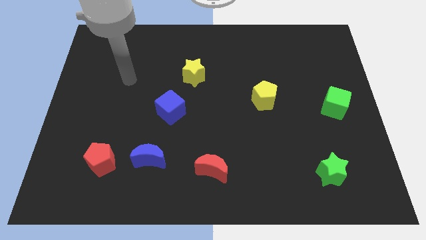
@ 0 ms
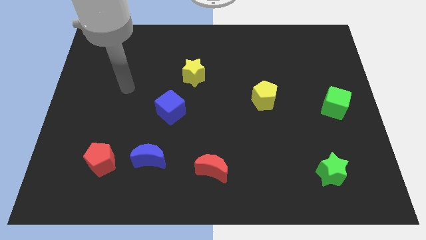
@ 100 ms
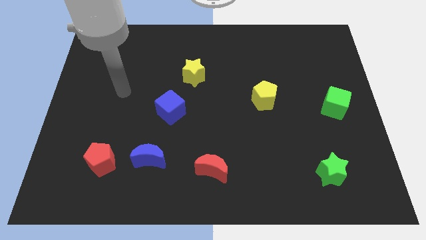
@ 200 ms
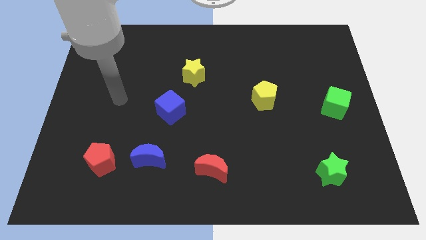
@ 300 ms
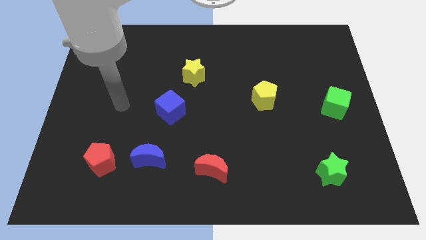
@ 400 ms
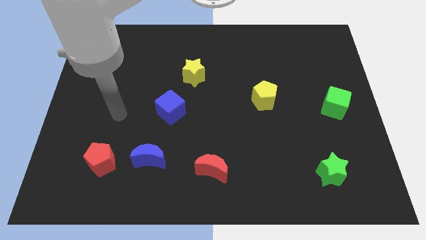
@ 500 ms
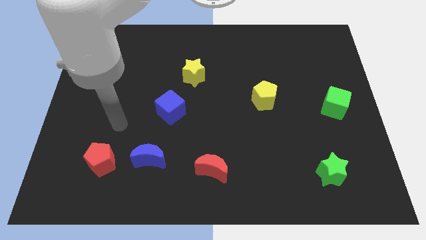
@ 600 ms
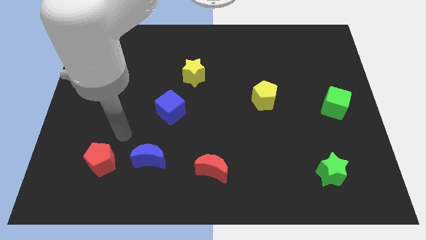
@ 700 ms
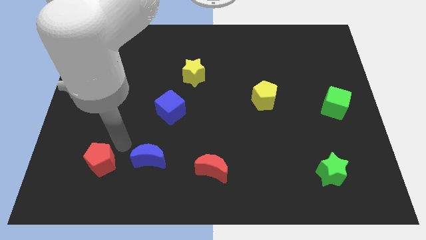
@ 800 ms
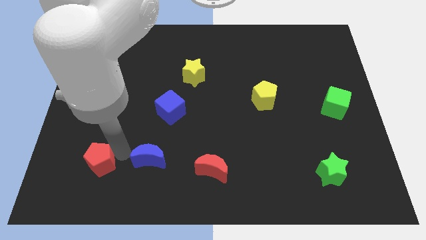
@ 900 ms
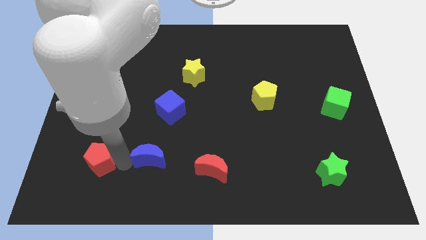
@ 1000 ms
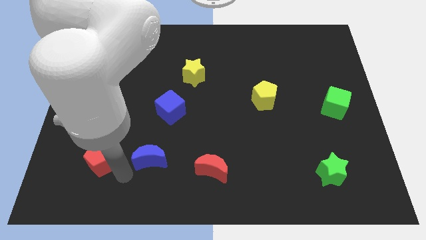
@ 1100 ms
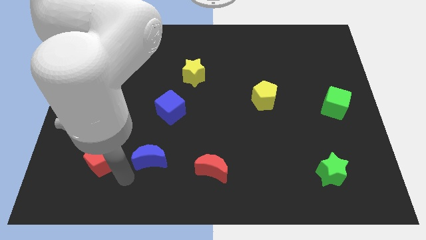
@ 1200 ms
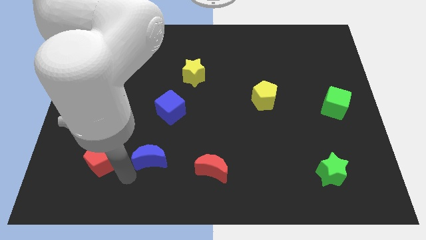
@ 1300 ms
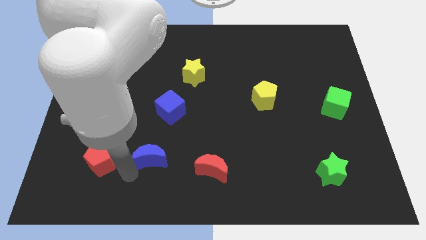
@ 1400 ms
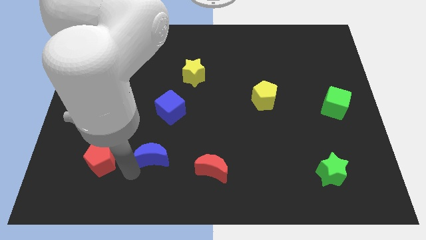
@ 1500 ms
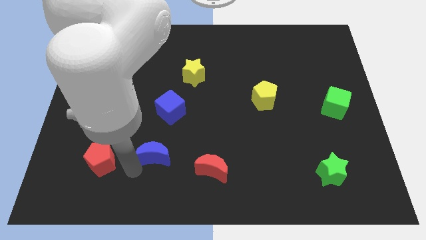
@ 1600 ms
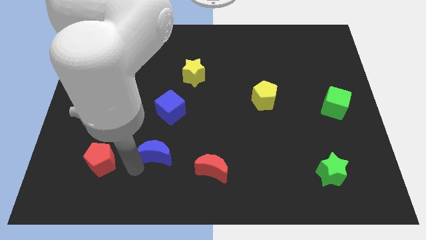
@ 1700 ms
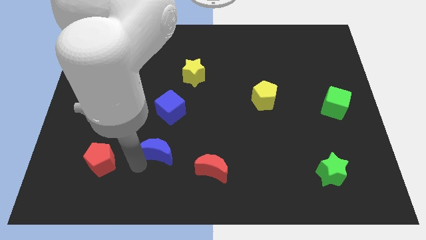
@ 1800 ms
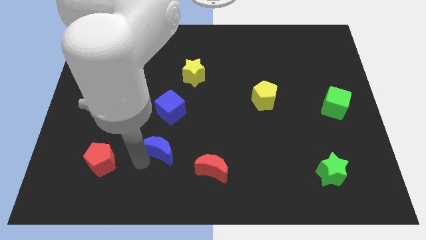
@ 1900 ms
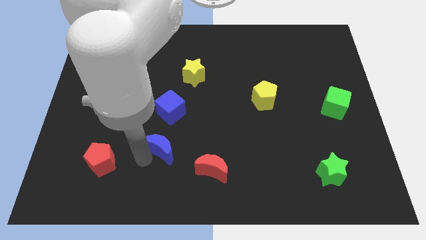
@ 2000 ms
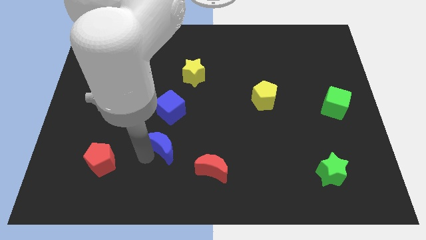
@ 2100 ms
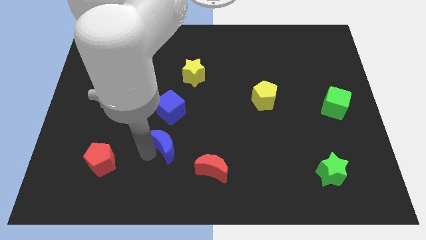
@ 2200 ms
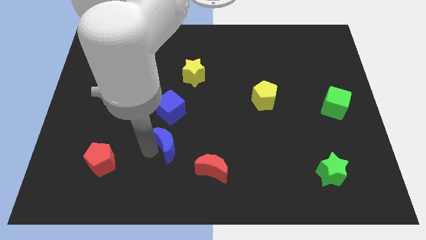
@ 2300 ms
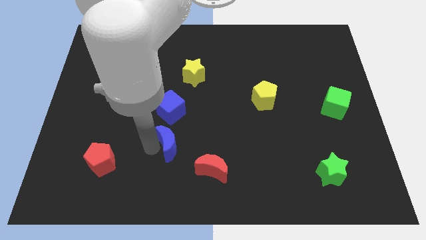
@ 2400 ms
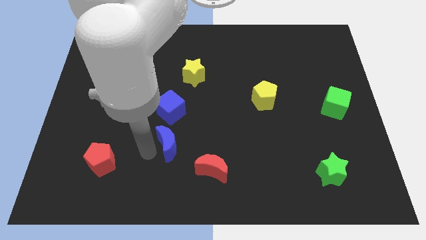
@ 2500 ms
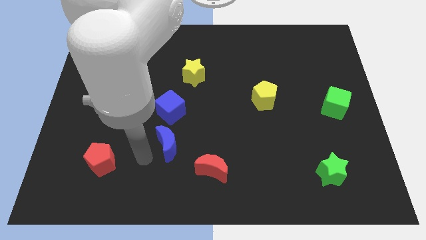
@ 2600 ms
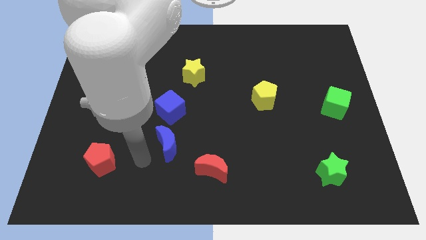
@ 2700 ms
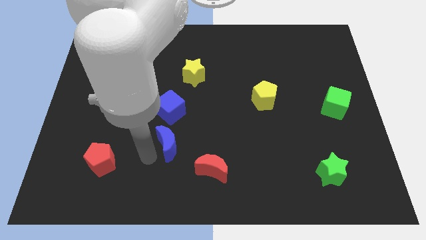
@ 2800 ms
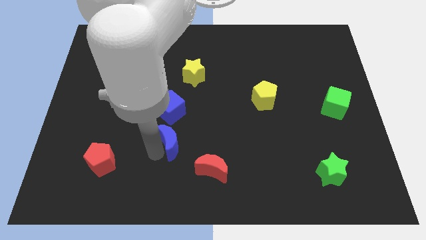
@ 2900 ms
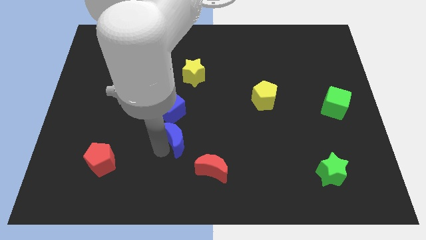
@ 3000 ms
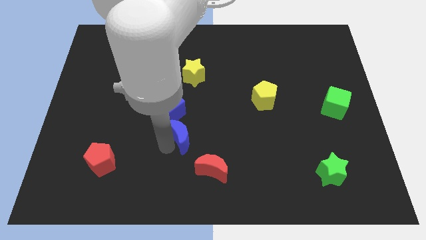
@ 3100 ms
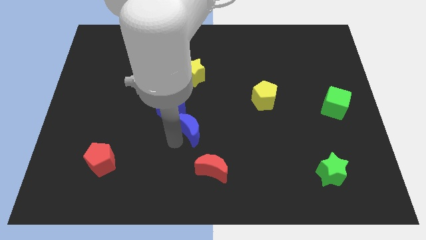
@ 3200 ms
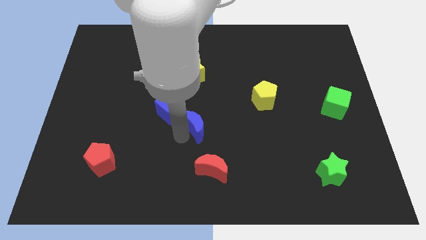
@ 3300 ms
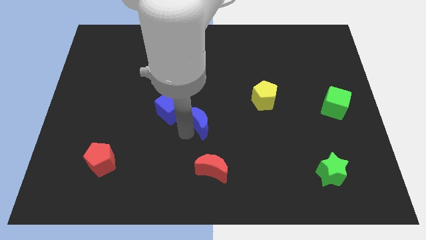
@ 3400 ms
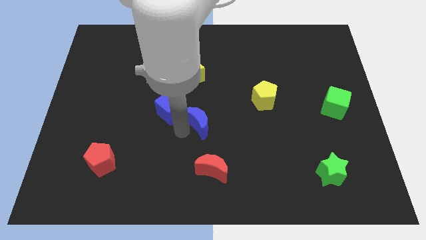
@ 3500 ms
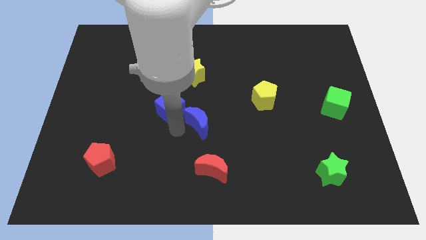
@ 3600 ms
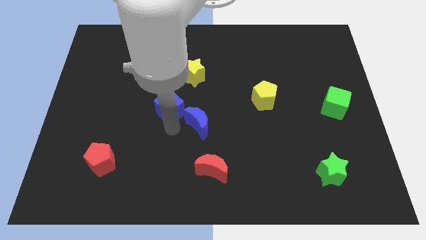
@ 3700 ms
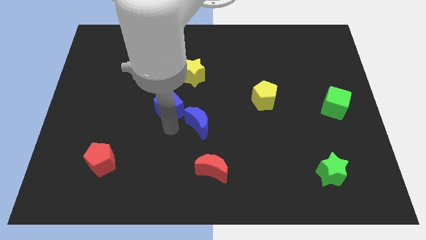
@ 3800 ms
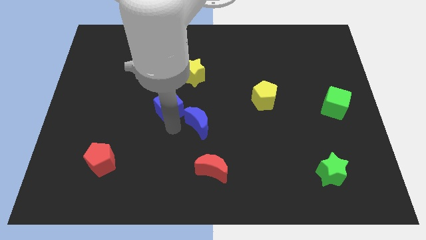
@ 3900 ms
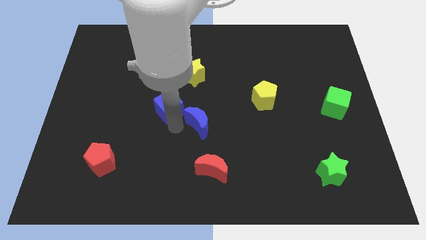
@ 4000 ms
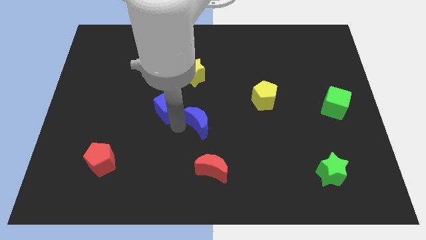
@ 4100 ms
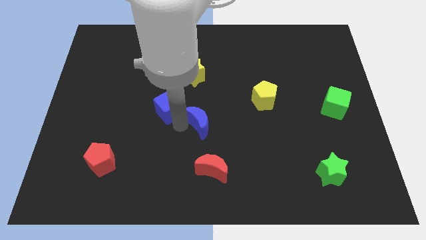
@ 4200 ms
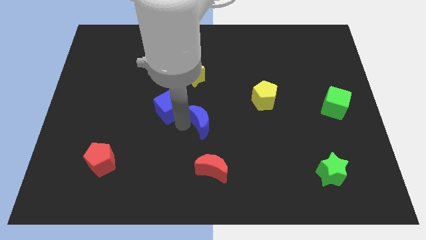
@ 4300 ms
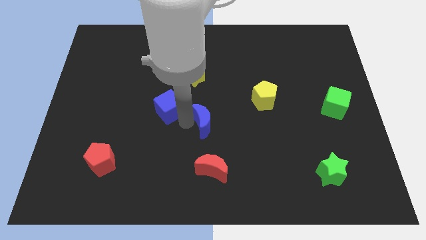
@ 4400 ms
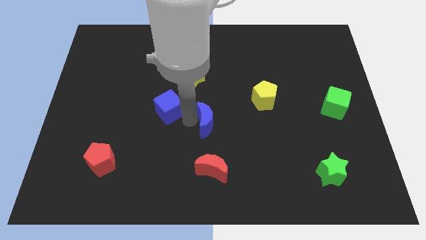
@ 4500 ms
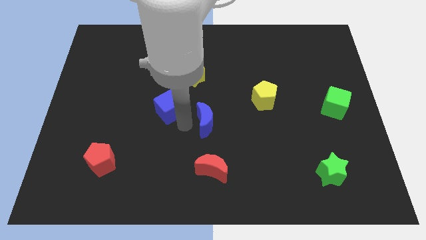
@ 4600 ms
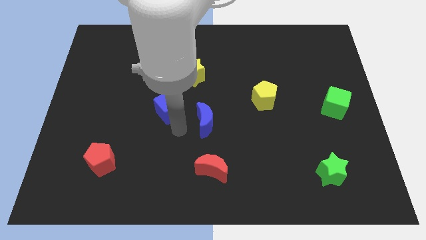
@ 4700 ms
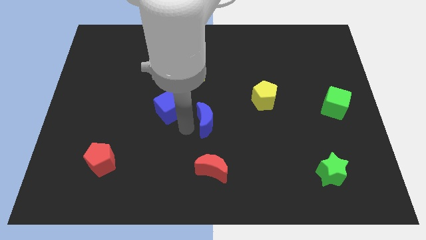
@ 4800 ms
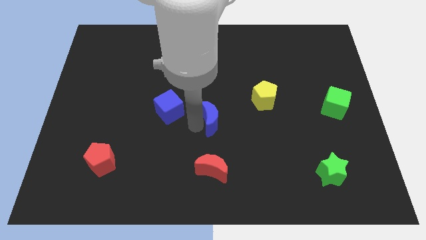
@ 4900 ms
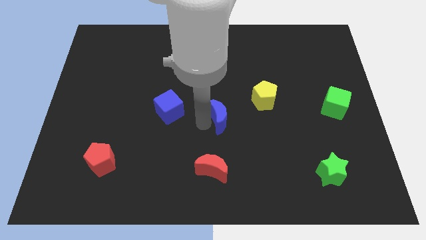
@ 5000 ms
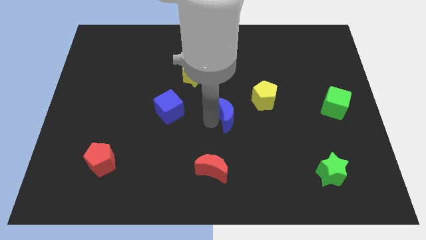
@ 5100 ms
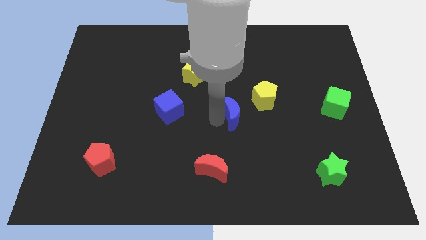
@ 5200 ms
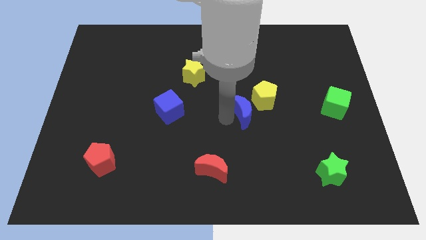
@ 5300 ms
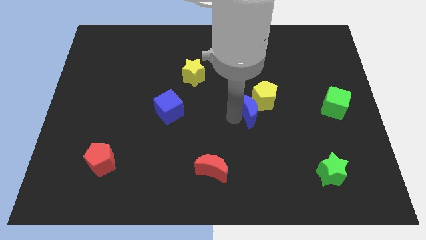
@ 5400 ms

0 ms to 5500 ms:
push the blue moon to the yellow pentagon

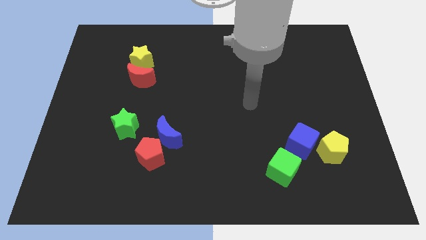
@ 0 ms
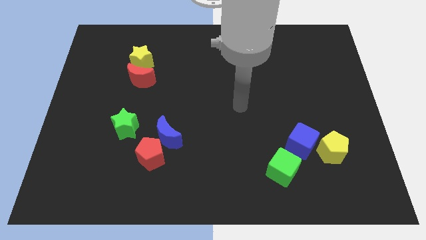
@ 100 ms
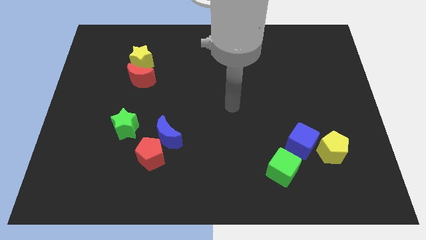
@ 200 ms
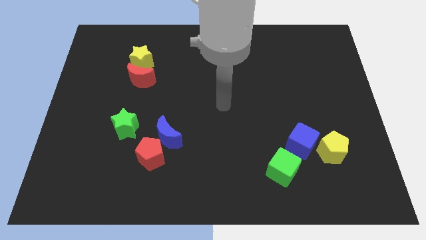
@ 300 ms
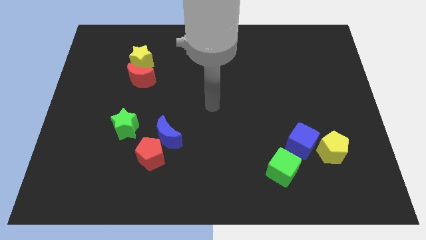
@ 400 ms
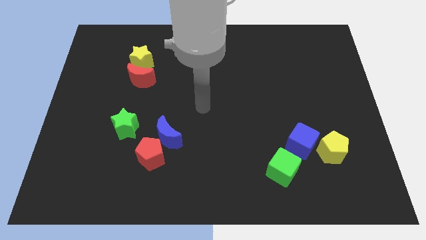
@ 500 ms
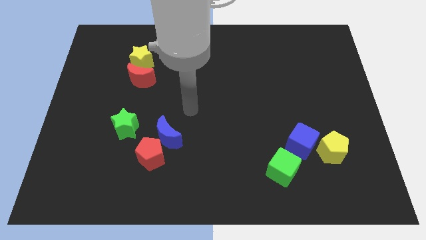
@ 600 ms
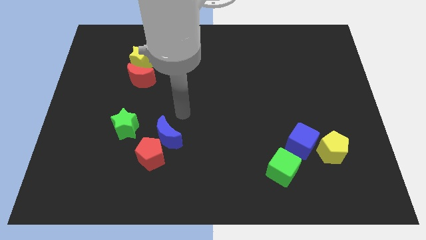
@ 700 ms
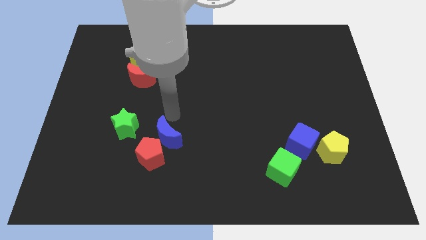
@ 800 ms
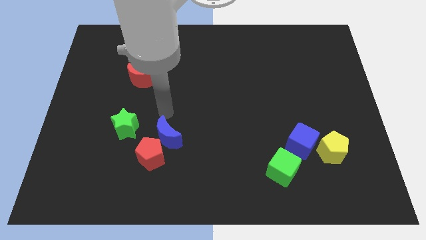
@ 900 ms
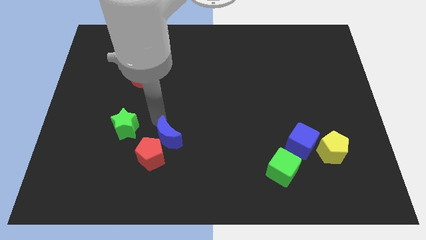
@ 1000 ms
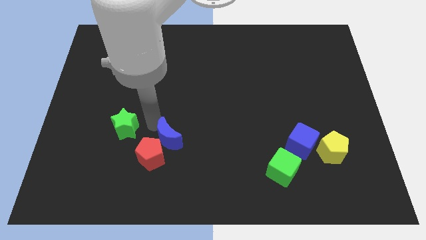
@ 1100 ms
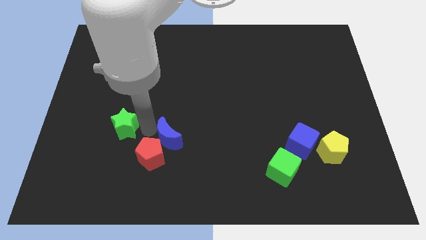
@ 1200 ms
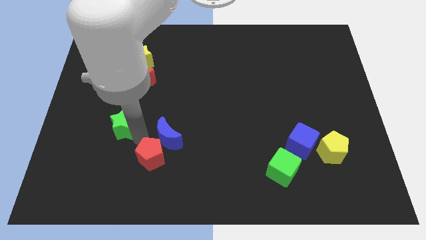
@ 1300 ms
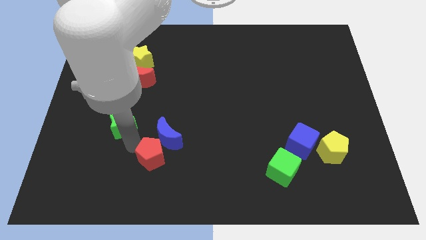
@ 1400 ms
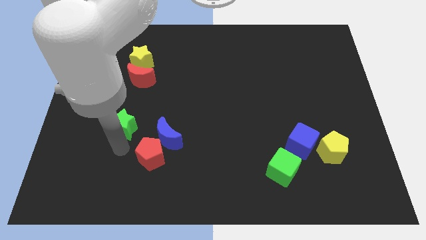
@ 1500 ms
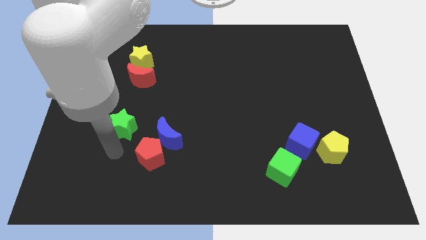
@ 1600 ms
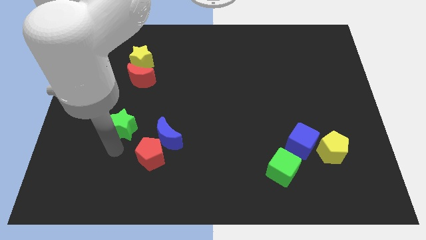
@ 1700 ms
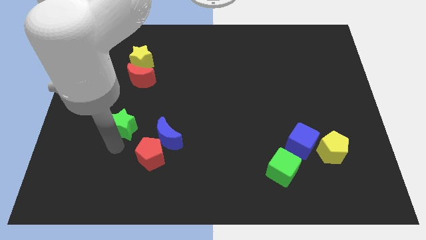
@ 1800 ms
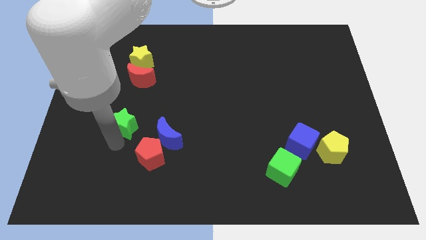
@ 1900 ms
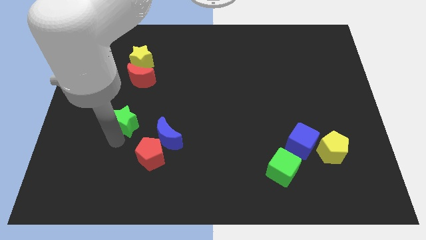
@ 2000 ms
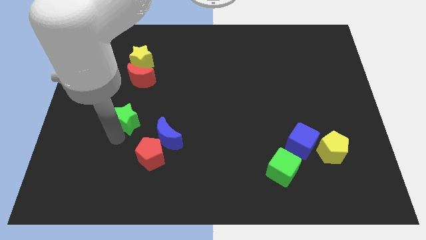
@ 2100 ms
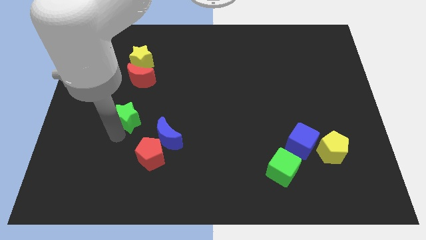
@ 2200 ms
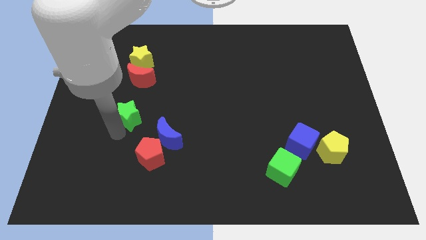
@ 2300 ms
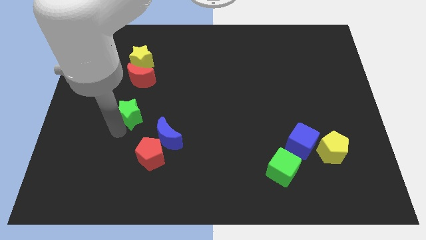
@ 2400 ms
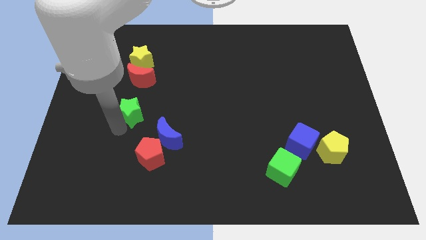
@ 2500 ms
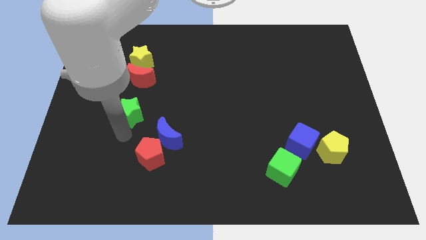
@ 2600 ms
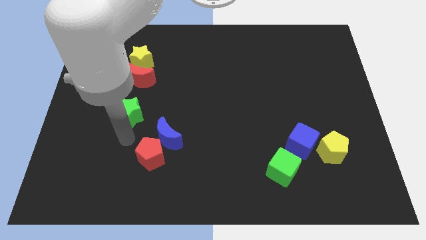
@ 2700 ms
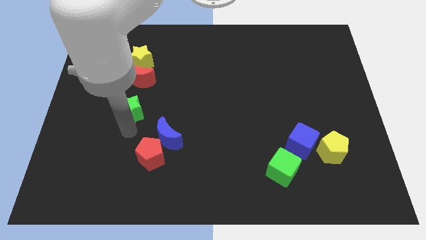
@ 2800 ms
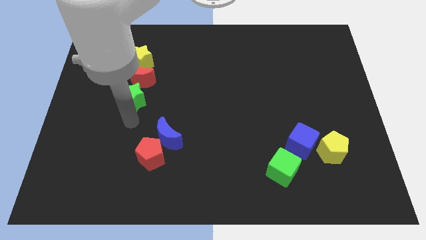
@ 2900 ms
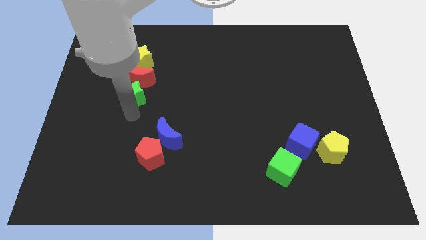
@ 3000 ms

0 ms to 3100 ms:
put the green star close to the red moon
